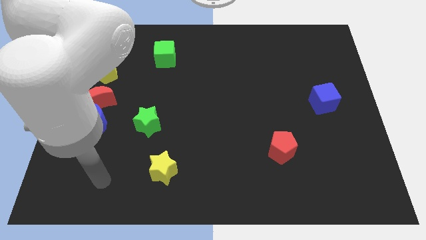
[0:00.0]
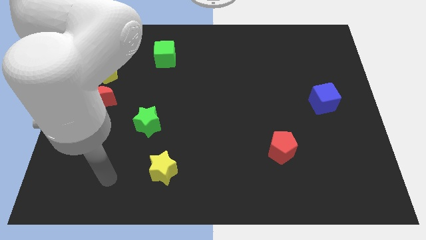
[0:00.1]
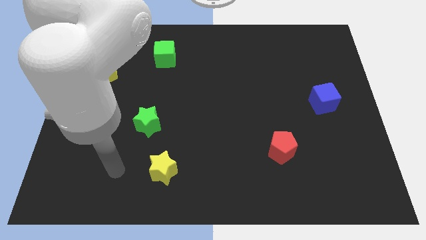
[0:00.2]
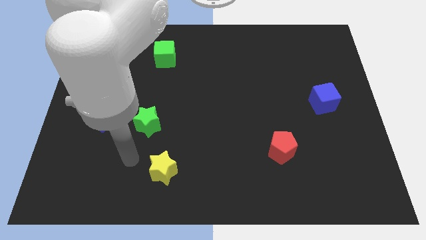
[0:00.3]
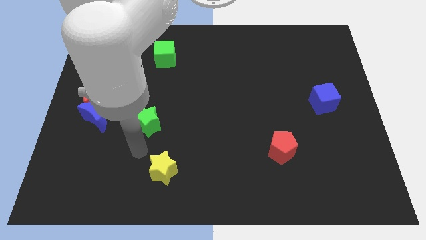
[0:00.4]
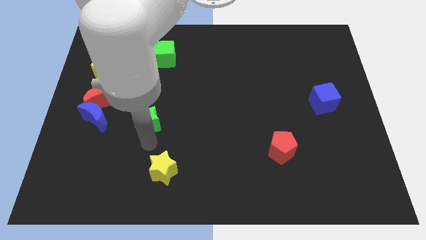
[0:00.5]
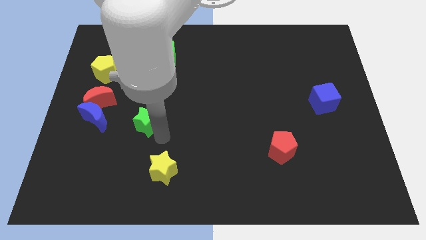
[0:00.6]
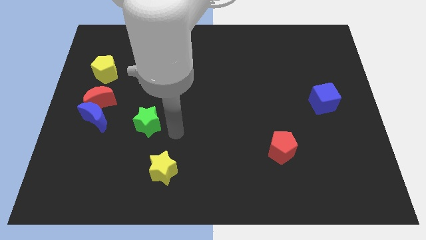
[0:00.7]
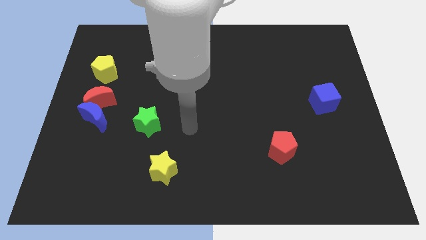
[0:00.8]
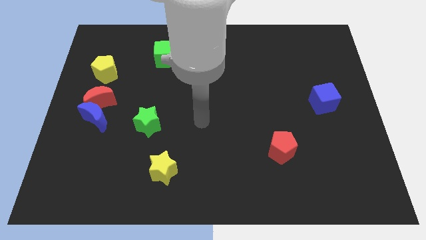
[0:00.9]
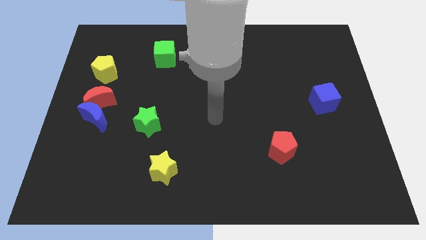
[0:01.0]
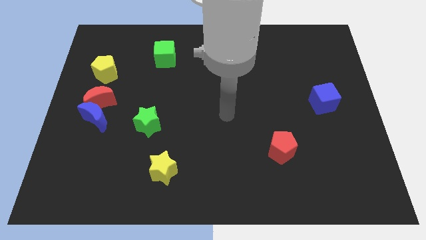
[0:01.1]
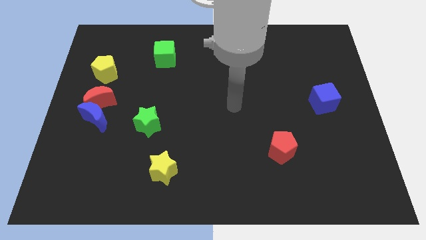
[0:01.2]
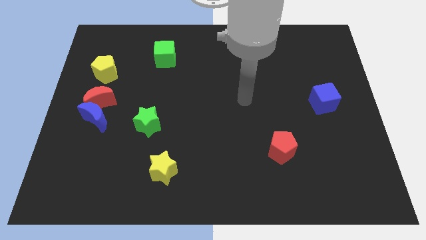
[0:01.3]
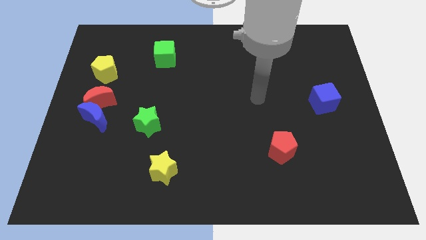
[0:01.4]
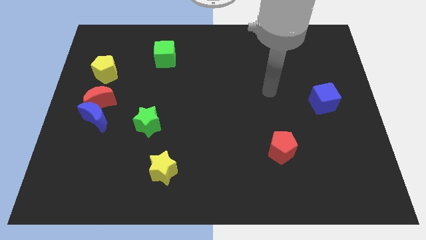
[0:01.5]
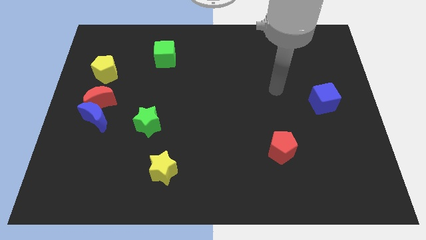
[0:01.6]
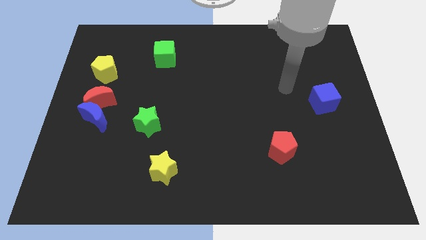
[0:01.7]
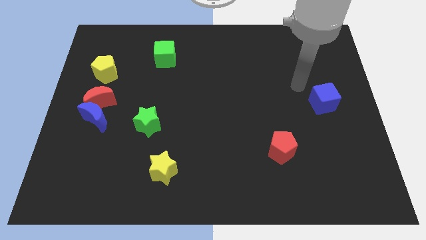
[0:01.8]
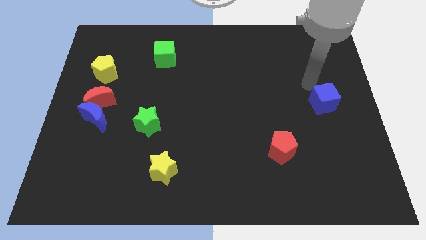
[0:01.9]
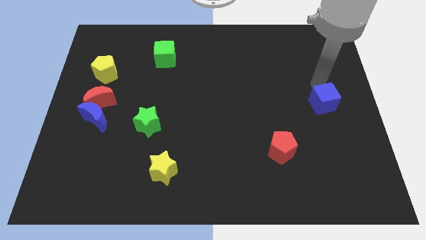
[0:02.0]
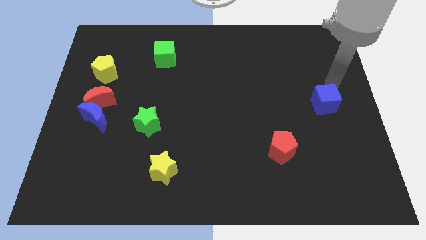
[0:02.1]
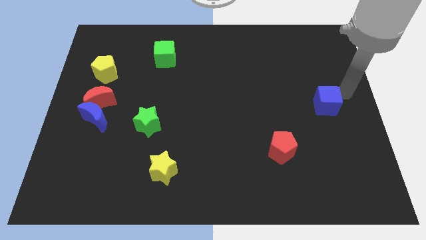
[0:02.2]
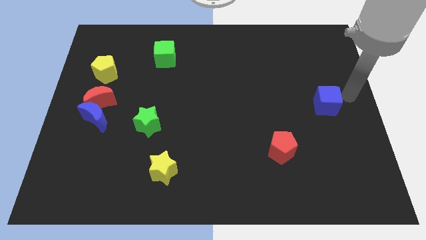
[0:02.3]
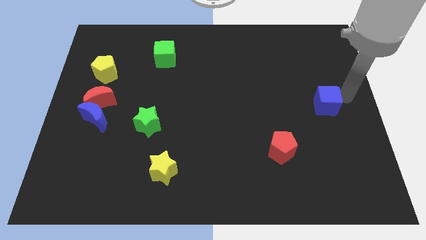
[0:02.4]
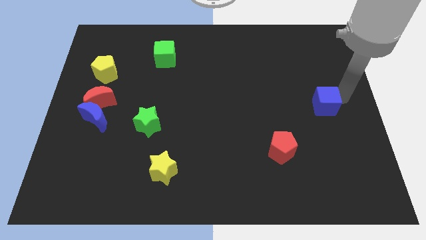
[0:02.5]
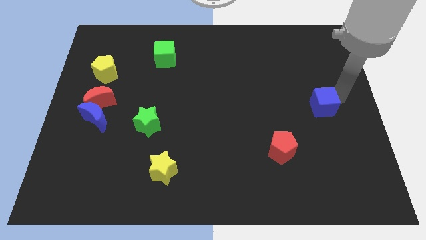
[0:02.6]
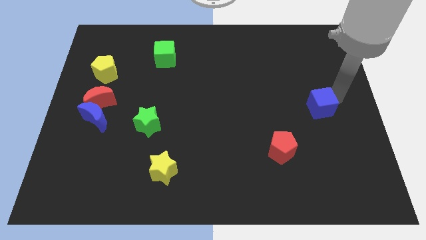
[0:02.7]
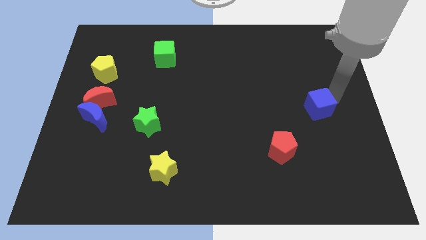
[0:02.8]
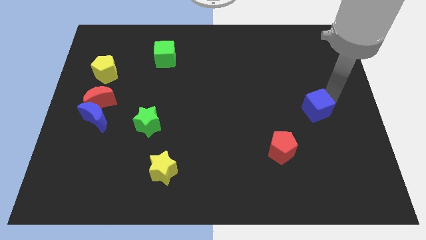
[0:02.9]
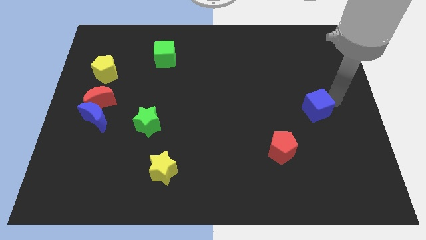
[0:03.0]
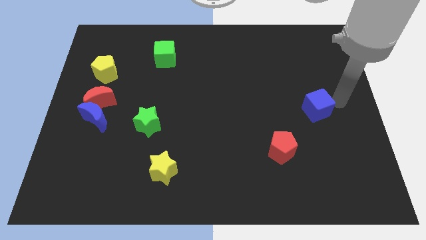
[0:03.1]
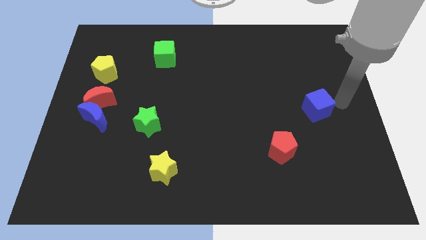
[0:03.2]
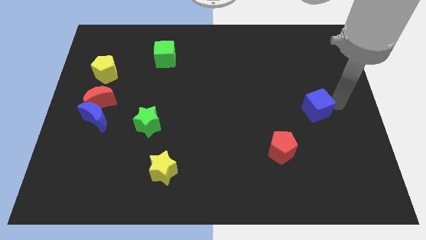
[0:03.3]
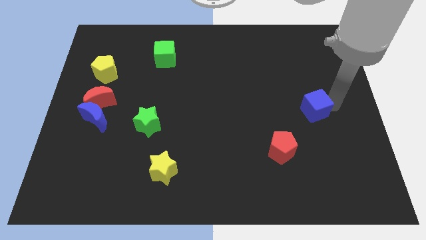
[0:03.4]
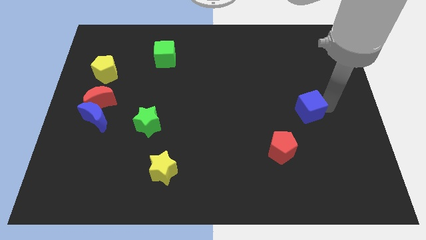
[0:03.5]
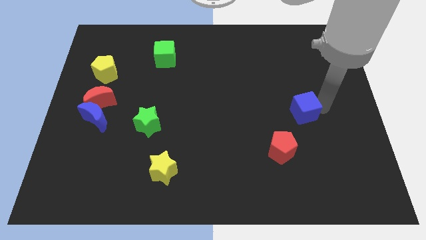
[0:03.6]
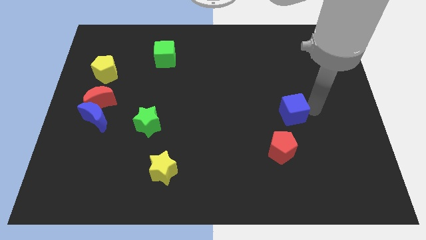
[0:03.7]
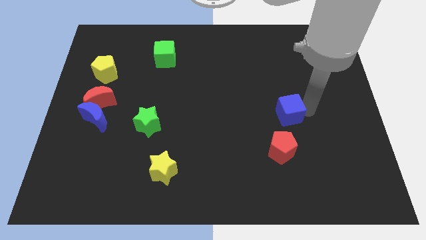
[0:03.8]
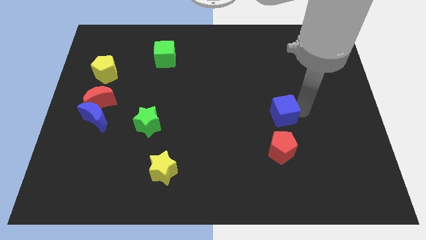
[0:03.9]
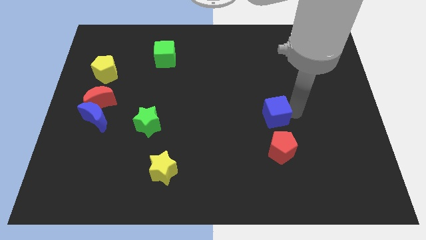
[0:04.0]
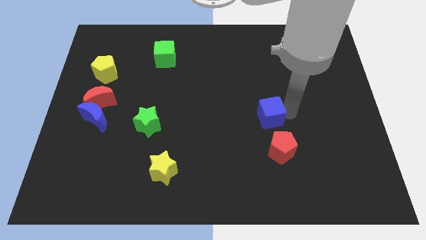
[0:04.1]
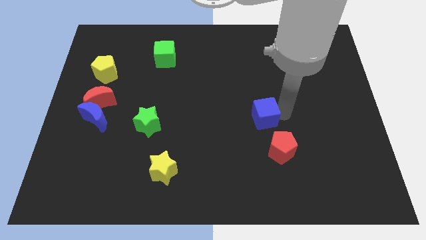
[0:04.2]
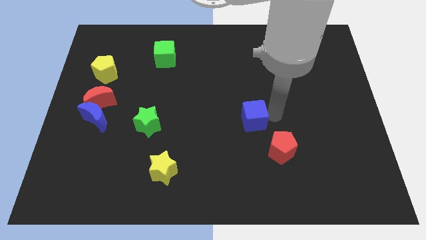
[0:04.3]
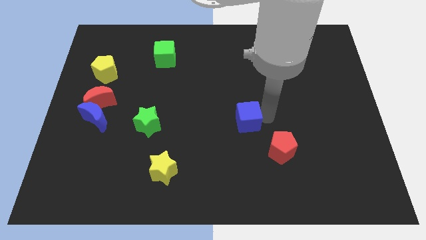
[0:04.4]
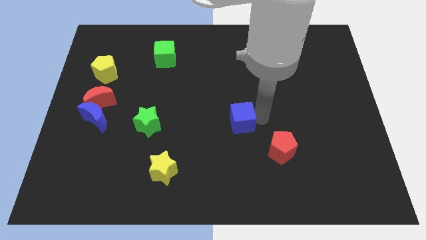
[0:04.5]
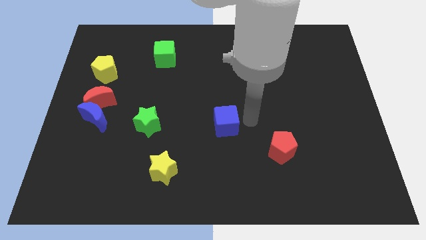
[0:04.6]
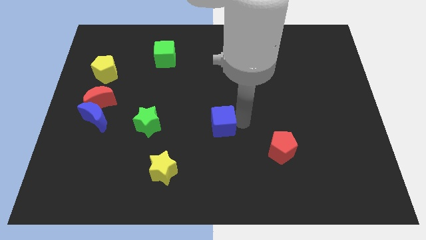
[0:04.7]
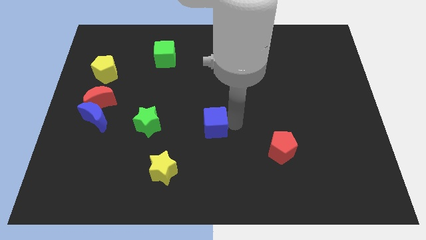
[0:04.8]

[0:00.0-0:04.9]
slide the blue cube to the right side of the green star

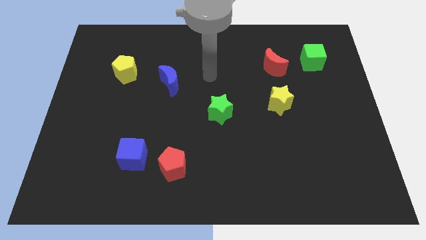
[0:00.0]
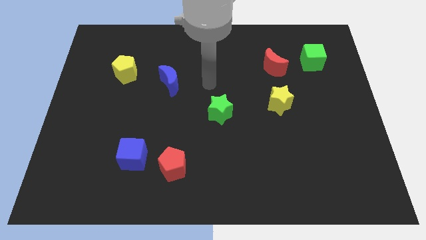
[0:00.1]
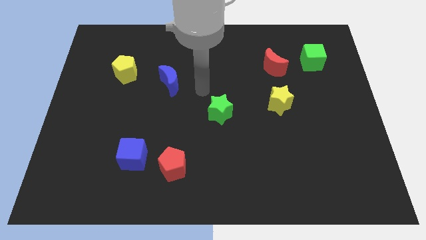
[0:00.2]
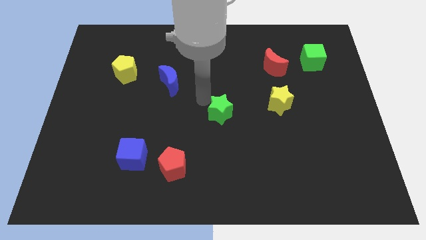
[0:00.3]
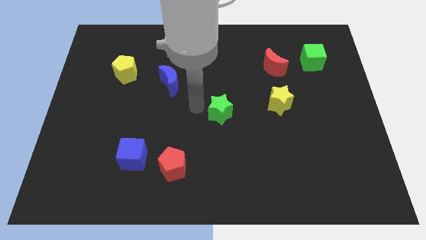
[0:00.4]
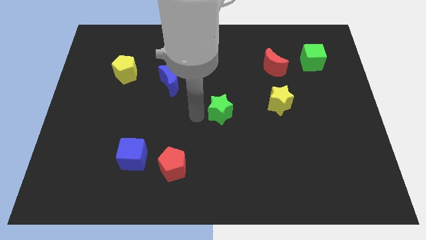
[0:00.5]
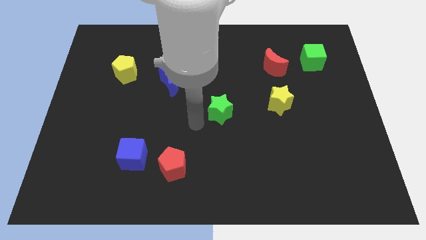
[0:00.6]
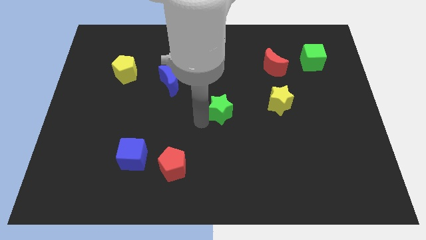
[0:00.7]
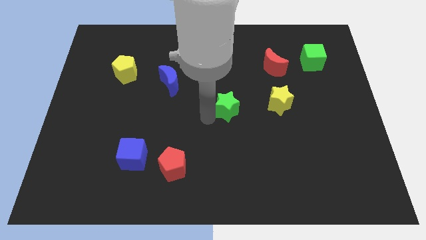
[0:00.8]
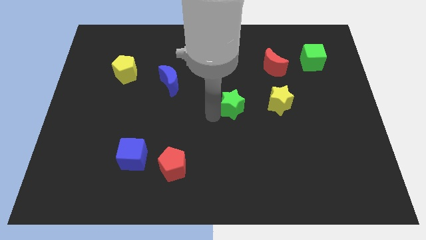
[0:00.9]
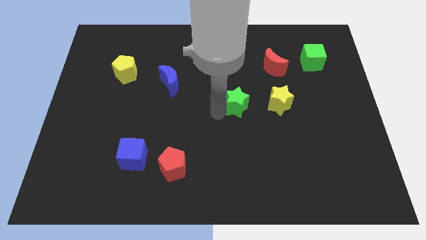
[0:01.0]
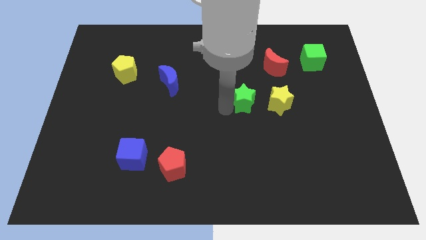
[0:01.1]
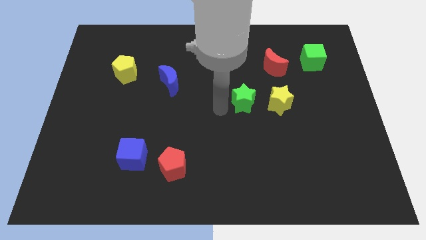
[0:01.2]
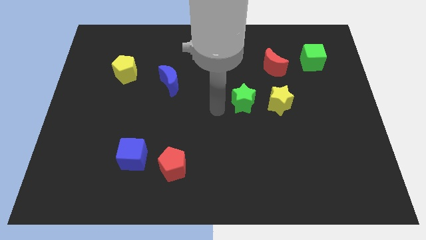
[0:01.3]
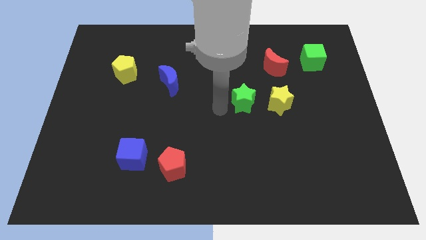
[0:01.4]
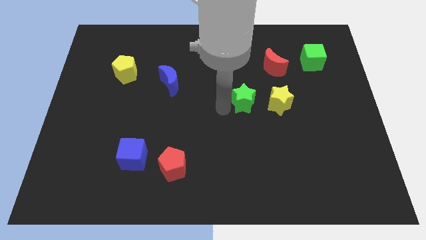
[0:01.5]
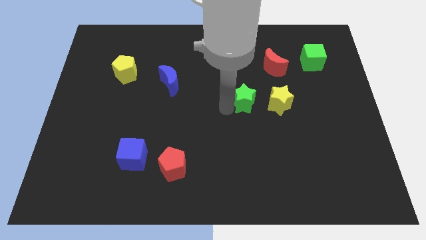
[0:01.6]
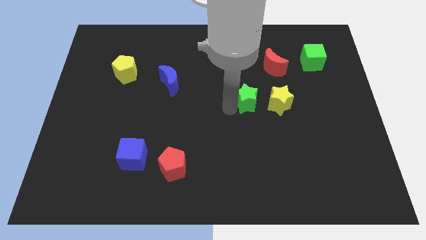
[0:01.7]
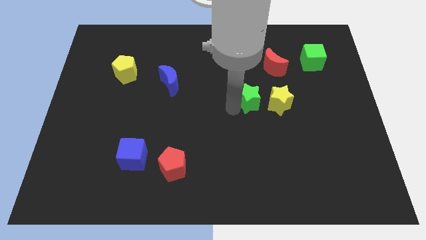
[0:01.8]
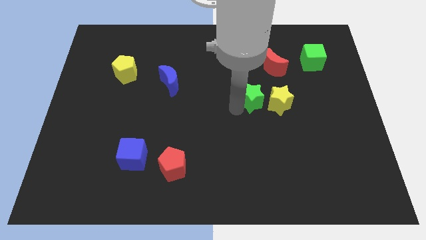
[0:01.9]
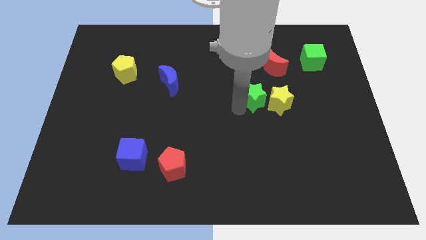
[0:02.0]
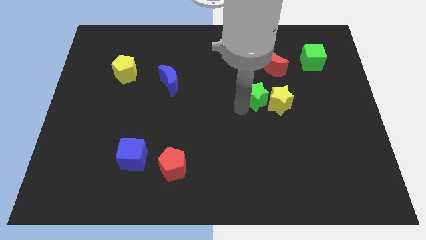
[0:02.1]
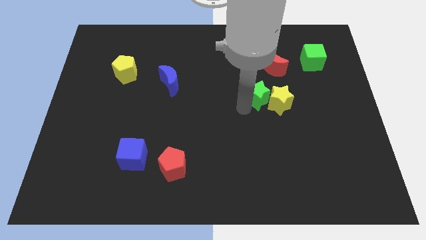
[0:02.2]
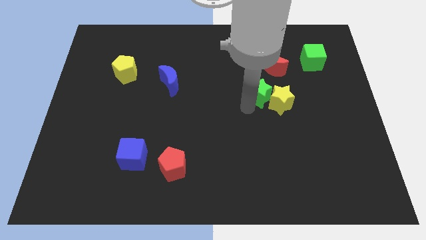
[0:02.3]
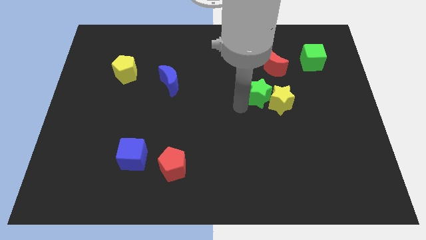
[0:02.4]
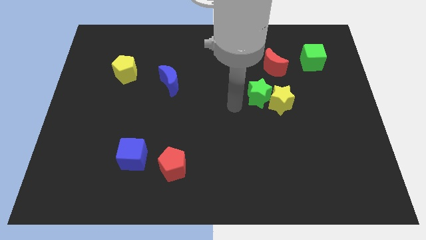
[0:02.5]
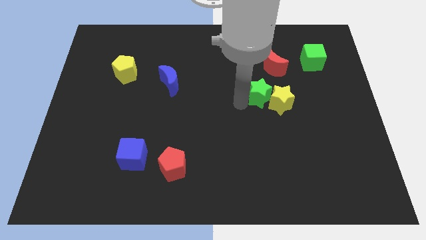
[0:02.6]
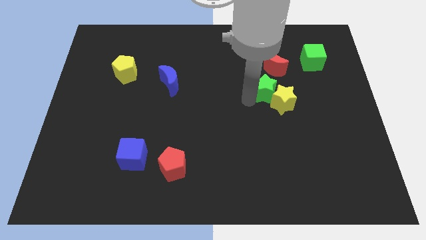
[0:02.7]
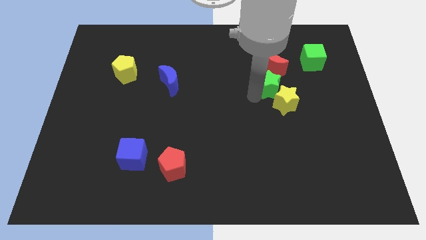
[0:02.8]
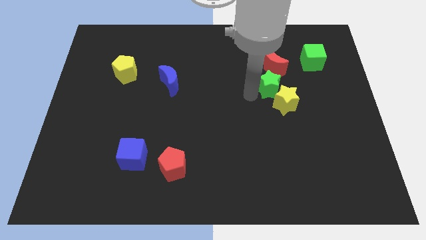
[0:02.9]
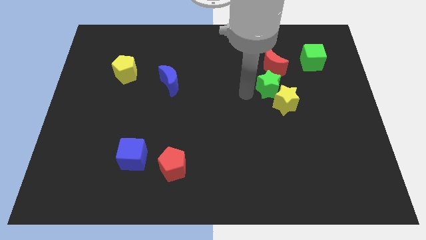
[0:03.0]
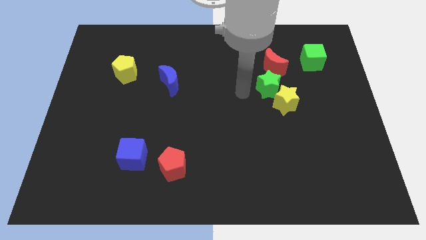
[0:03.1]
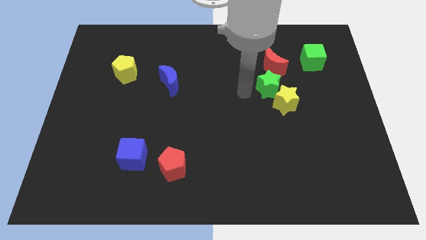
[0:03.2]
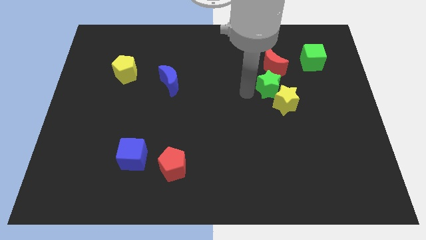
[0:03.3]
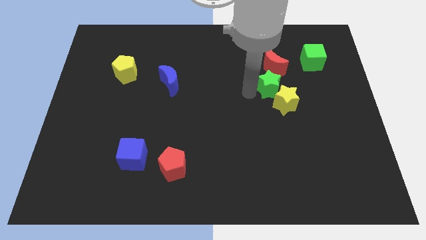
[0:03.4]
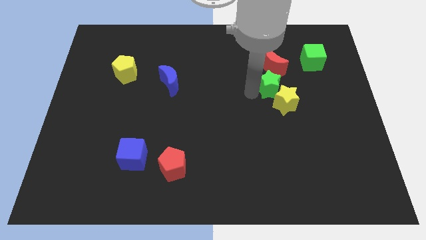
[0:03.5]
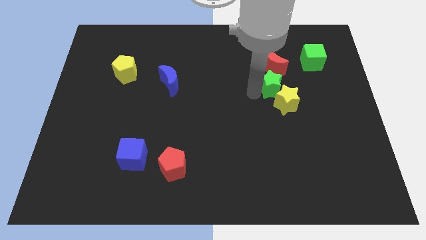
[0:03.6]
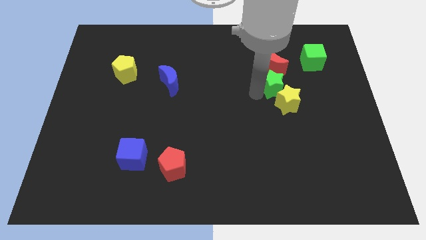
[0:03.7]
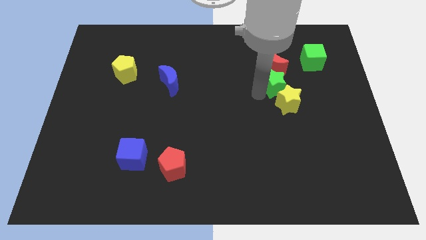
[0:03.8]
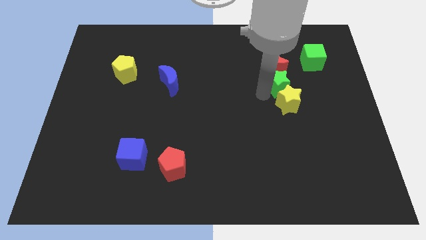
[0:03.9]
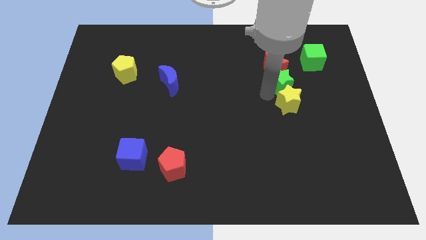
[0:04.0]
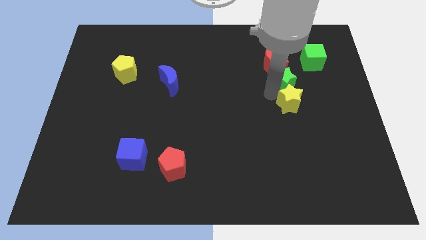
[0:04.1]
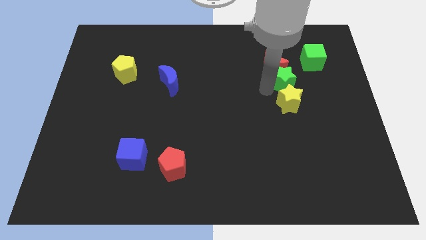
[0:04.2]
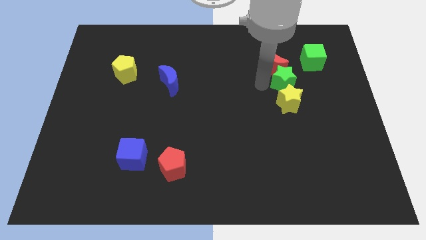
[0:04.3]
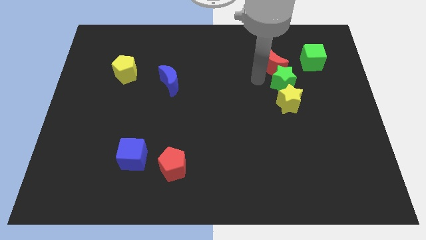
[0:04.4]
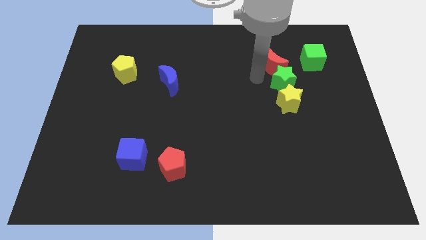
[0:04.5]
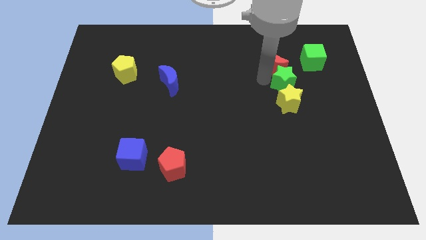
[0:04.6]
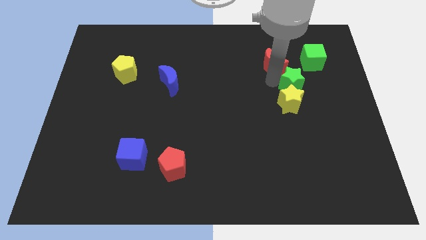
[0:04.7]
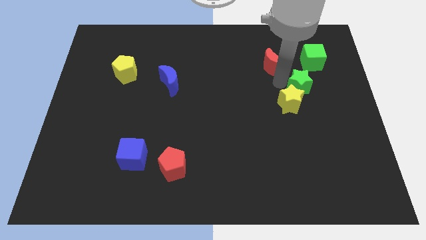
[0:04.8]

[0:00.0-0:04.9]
slide the green star to the bottom of the green cube
